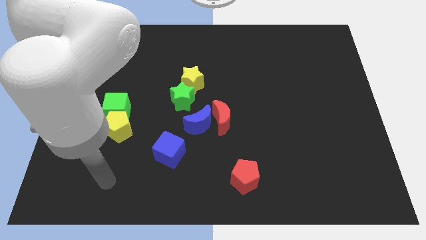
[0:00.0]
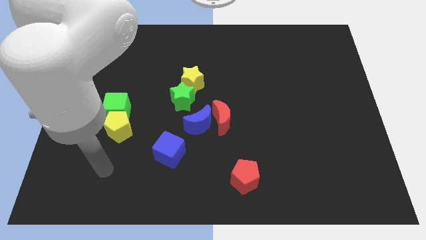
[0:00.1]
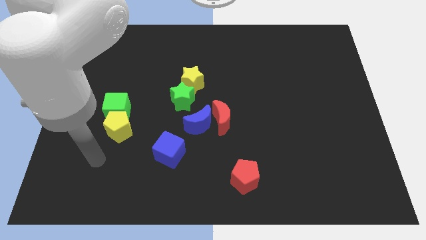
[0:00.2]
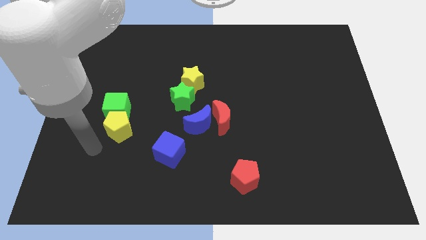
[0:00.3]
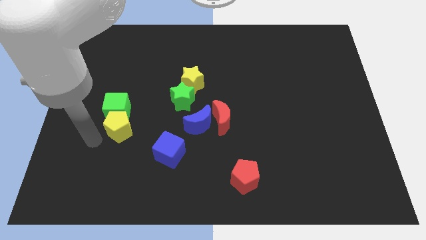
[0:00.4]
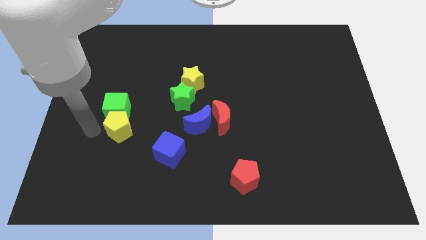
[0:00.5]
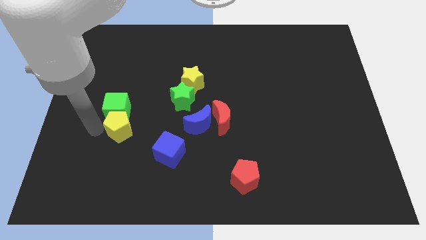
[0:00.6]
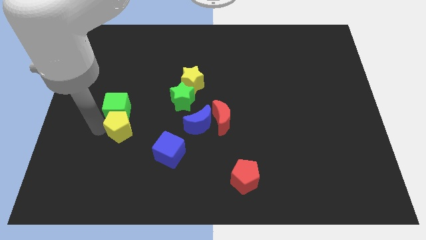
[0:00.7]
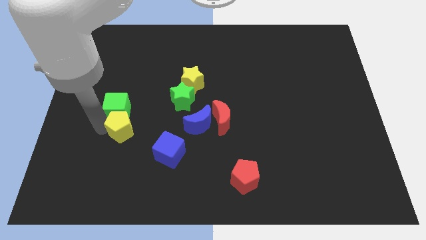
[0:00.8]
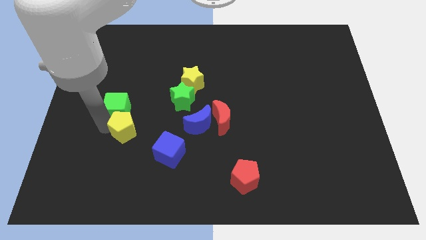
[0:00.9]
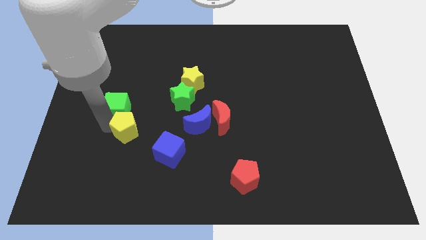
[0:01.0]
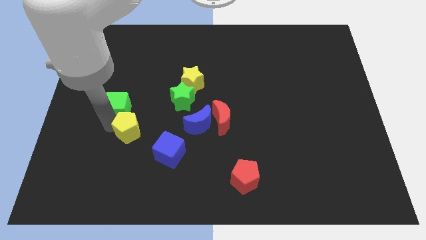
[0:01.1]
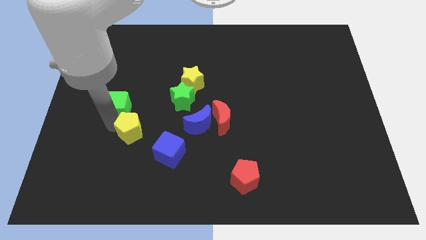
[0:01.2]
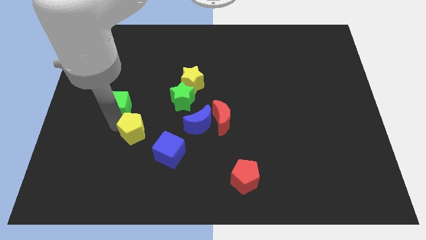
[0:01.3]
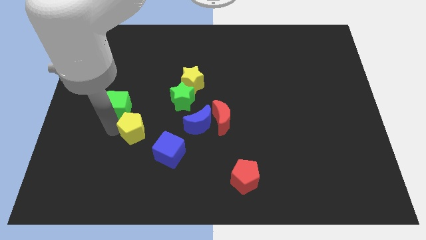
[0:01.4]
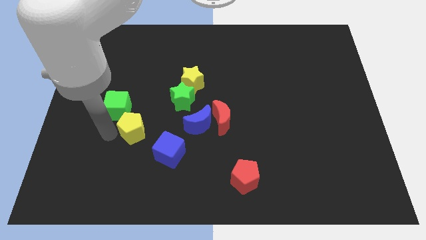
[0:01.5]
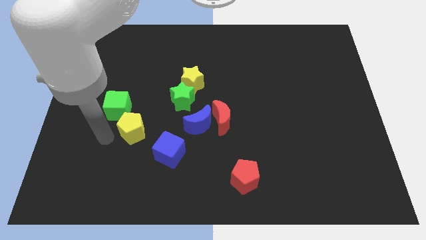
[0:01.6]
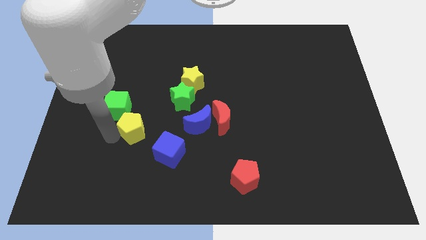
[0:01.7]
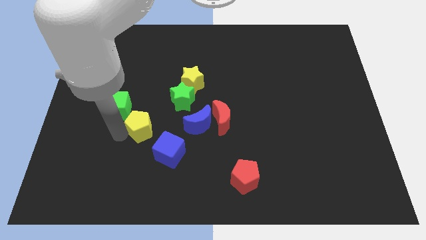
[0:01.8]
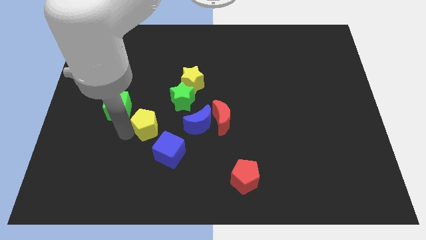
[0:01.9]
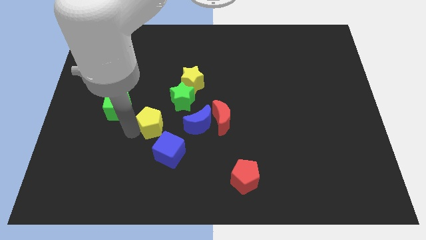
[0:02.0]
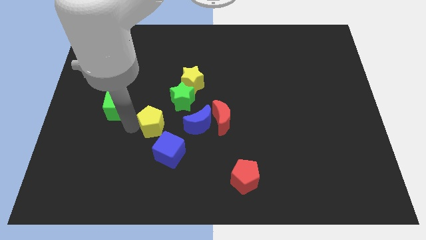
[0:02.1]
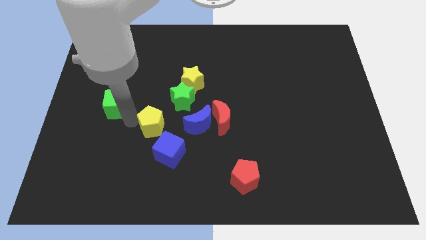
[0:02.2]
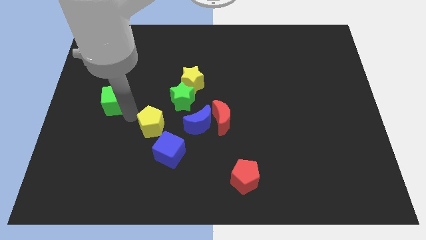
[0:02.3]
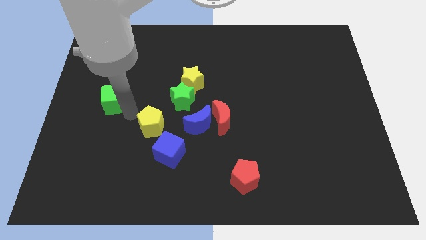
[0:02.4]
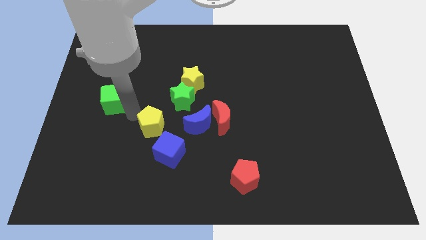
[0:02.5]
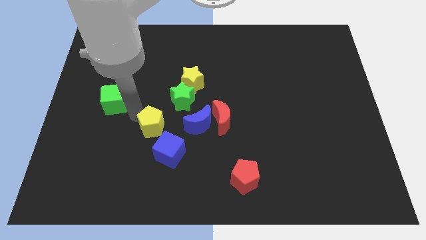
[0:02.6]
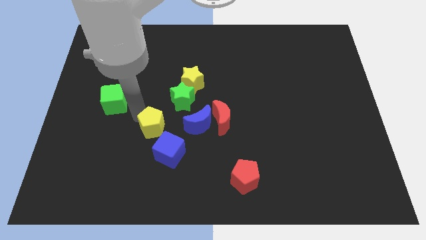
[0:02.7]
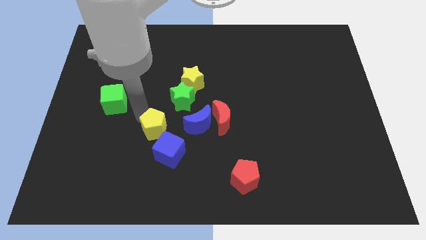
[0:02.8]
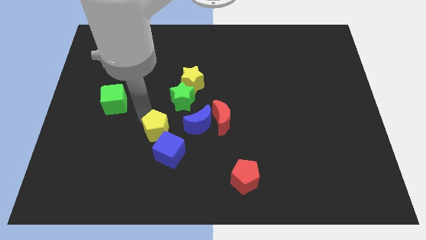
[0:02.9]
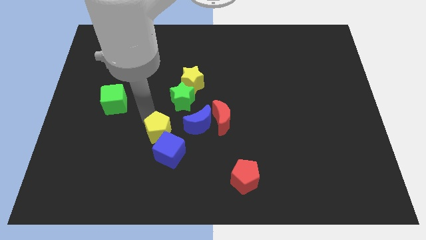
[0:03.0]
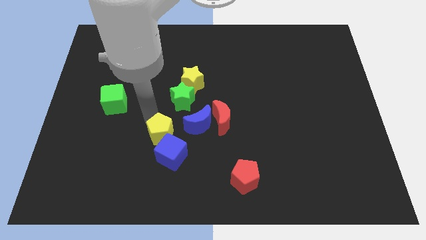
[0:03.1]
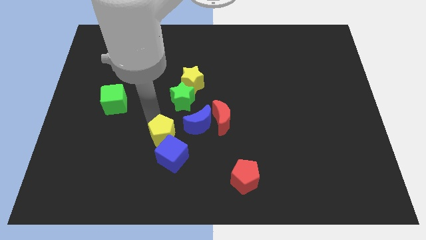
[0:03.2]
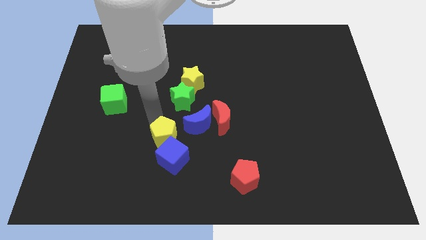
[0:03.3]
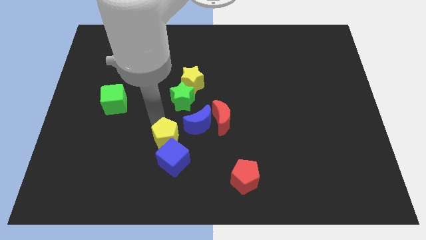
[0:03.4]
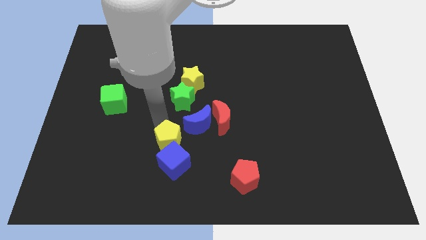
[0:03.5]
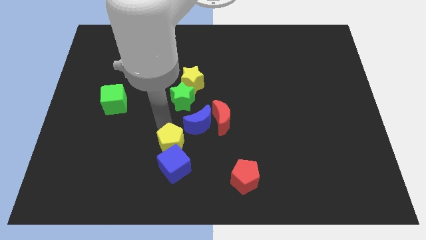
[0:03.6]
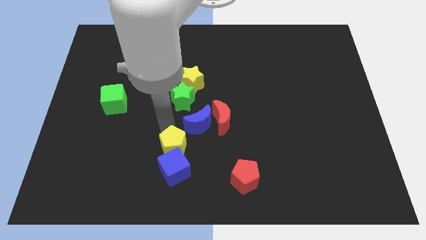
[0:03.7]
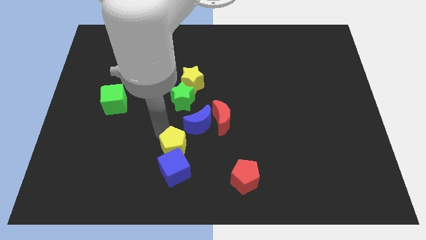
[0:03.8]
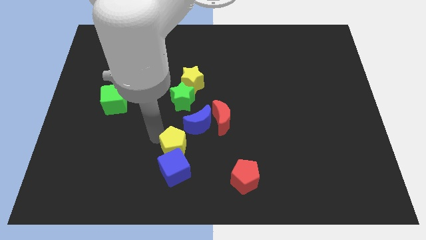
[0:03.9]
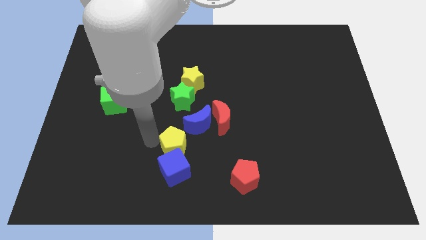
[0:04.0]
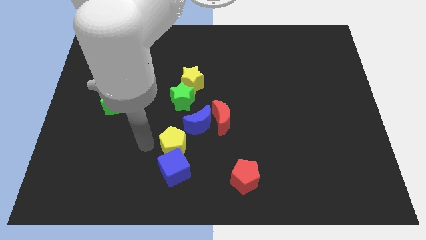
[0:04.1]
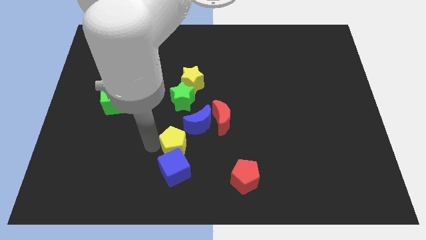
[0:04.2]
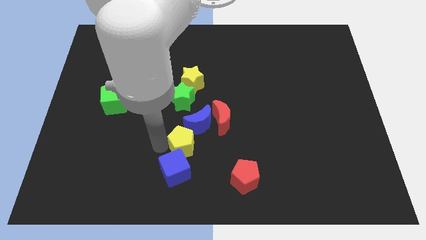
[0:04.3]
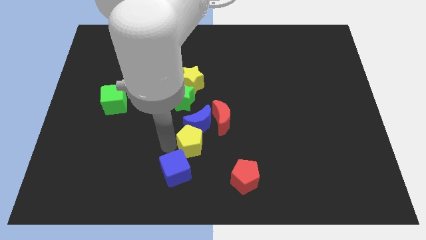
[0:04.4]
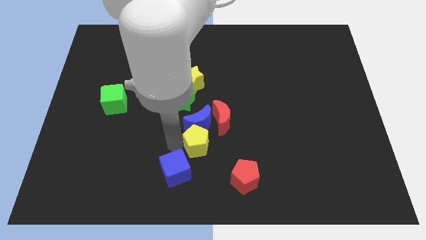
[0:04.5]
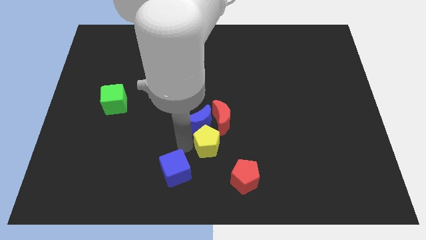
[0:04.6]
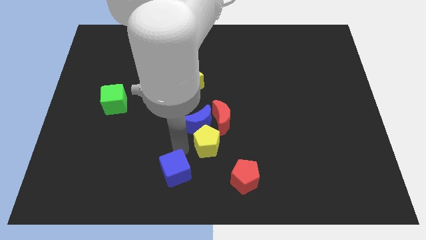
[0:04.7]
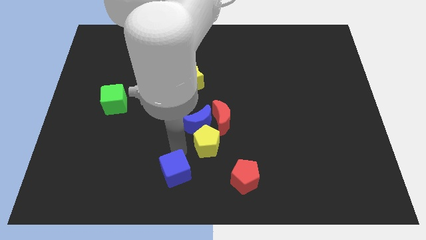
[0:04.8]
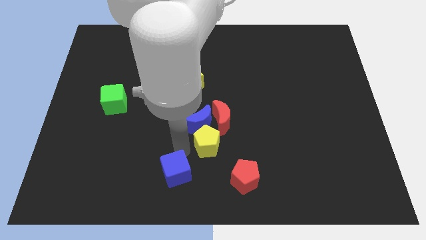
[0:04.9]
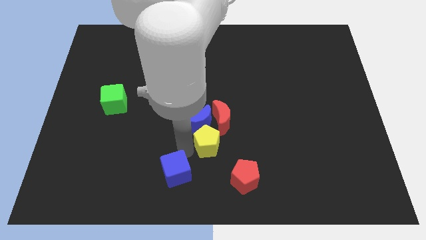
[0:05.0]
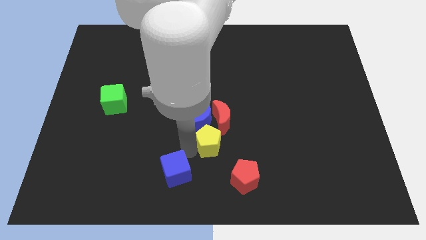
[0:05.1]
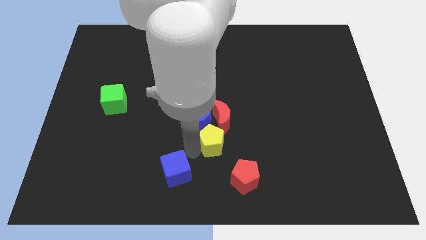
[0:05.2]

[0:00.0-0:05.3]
push the yellow pentagon right

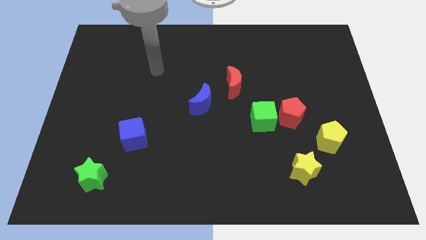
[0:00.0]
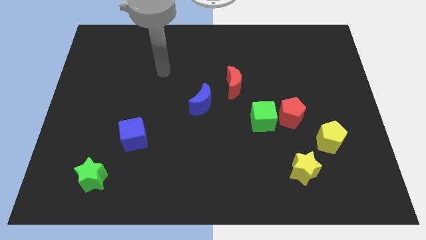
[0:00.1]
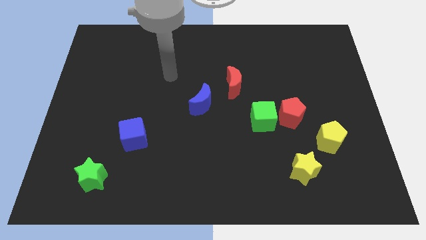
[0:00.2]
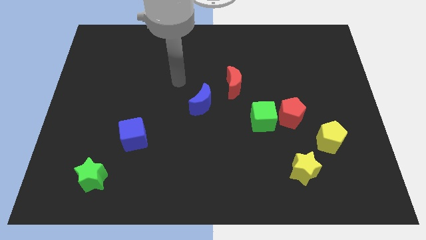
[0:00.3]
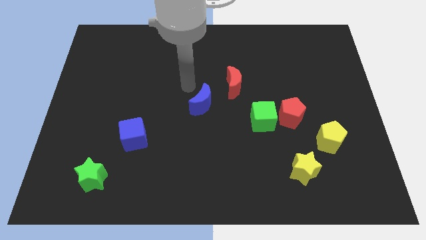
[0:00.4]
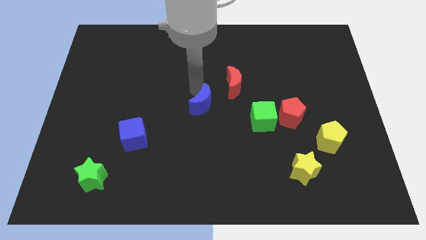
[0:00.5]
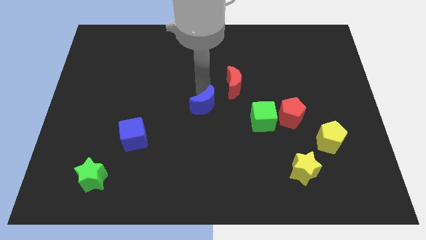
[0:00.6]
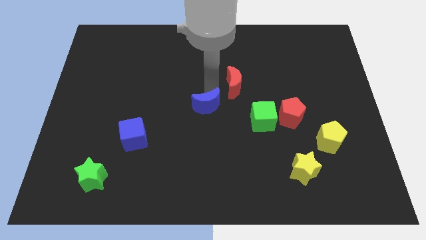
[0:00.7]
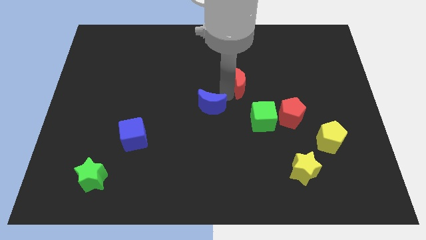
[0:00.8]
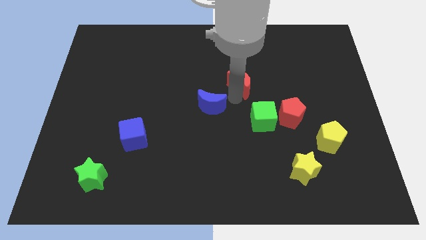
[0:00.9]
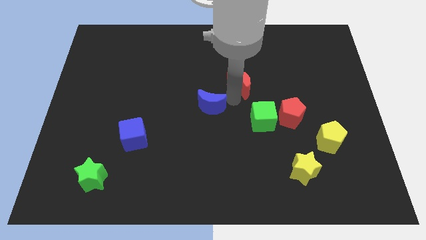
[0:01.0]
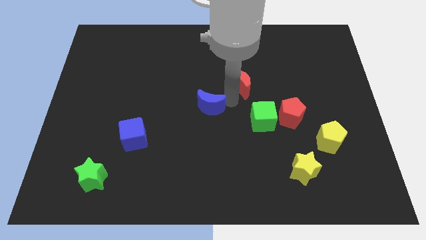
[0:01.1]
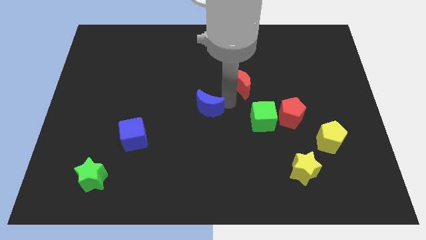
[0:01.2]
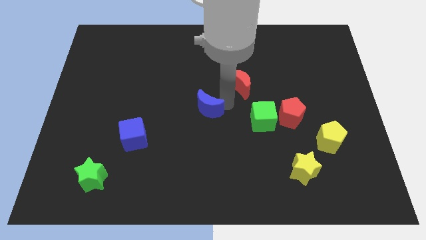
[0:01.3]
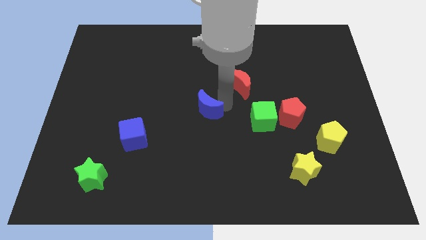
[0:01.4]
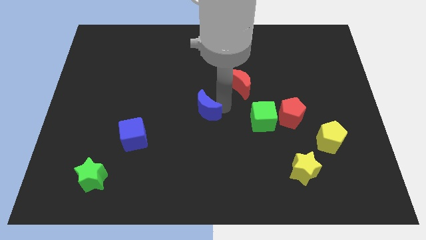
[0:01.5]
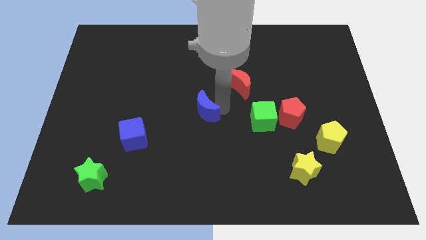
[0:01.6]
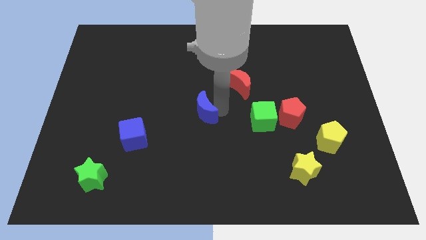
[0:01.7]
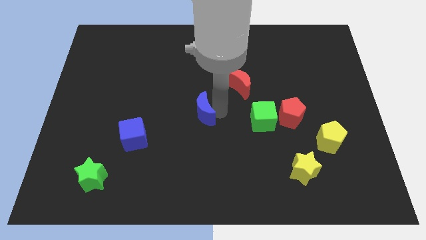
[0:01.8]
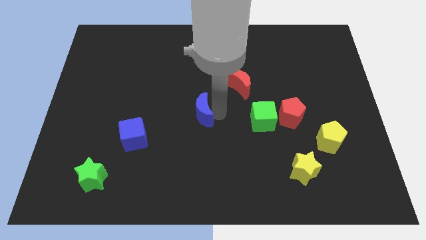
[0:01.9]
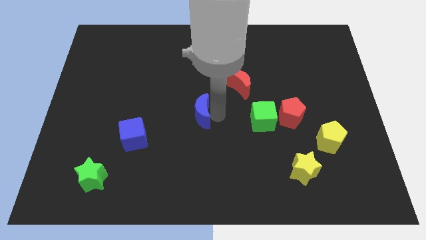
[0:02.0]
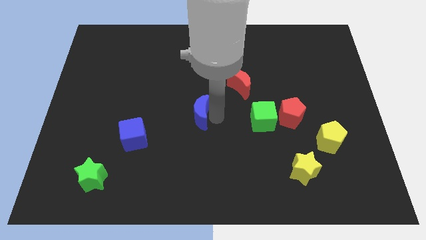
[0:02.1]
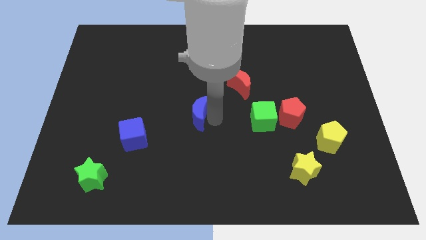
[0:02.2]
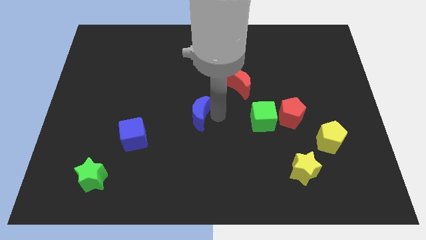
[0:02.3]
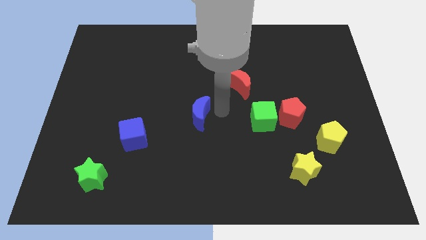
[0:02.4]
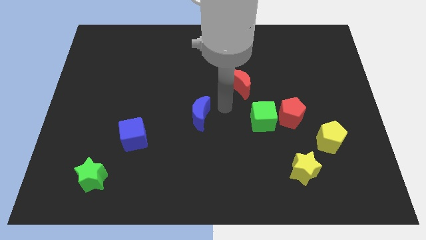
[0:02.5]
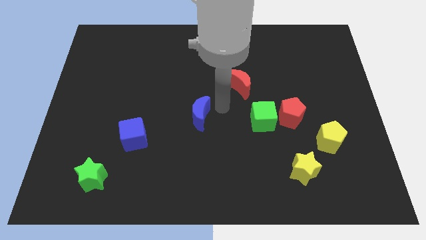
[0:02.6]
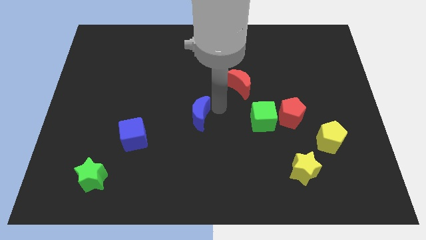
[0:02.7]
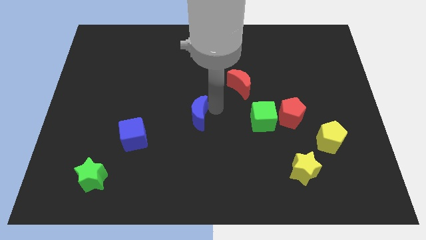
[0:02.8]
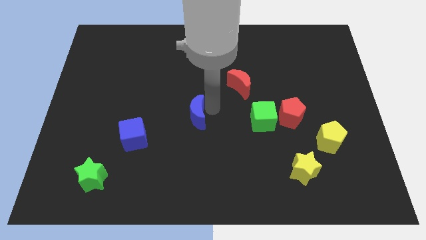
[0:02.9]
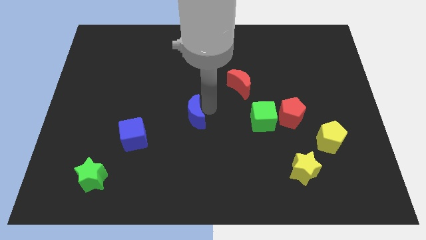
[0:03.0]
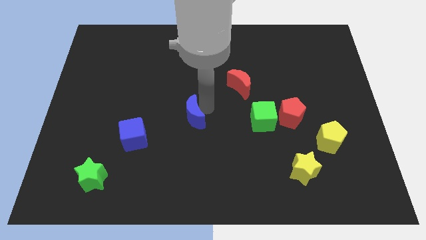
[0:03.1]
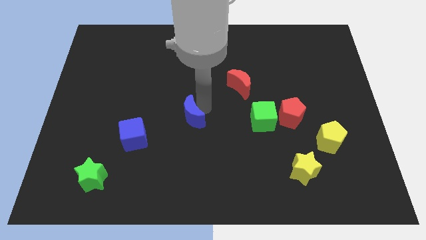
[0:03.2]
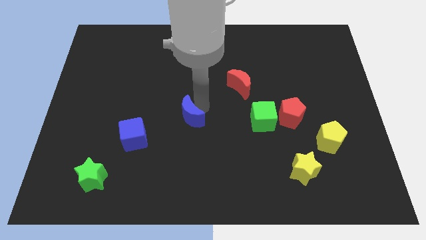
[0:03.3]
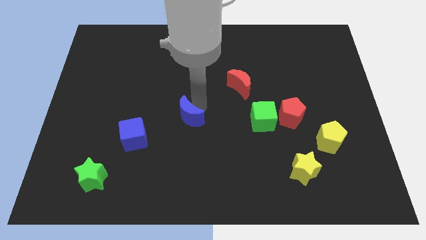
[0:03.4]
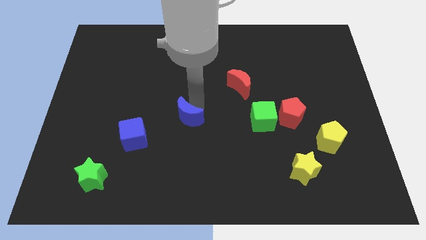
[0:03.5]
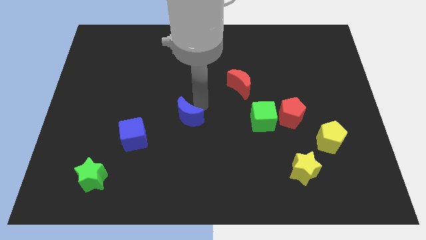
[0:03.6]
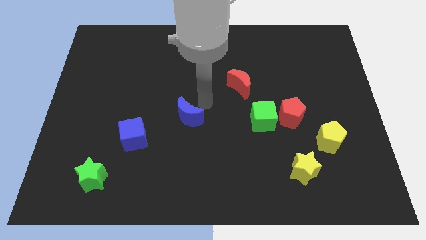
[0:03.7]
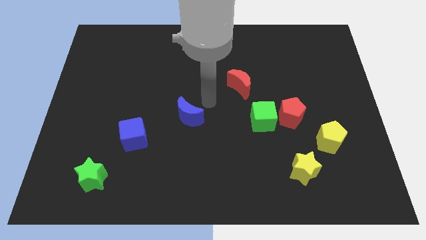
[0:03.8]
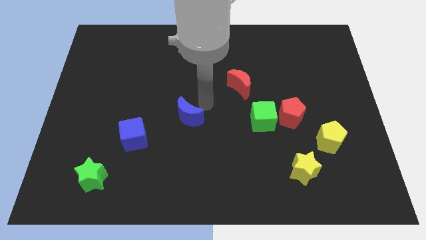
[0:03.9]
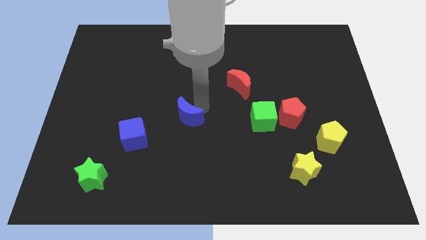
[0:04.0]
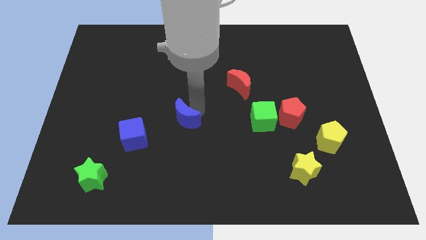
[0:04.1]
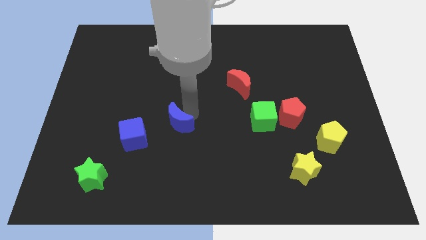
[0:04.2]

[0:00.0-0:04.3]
push the blue moon diagonally downwards and left somewhat
